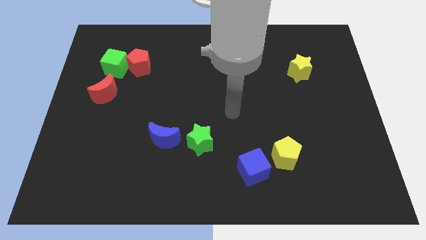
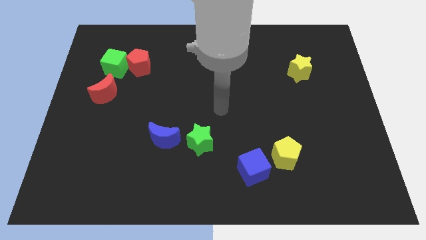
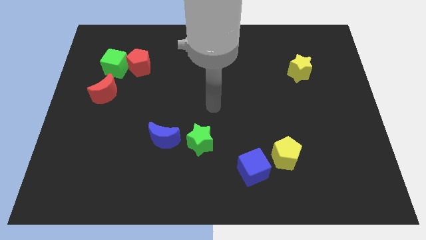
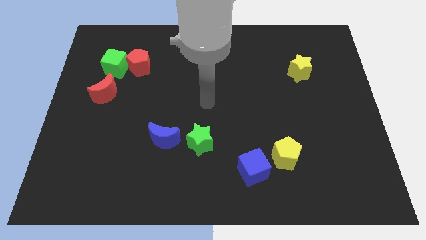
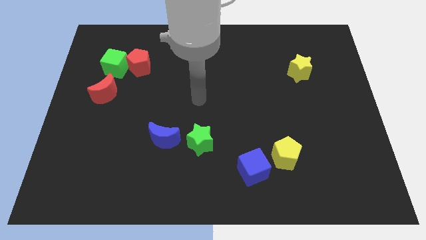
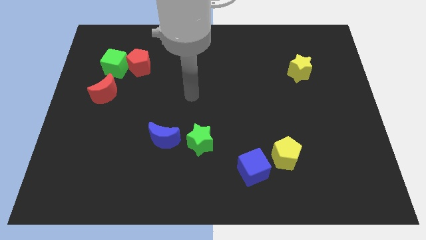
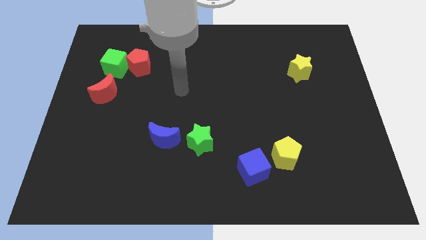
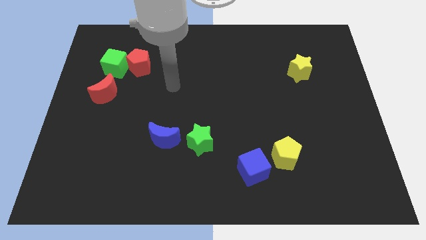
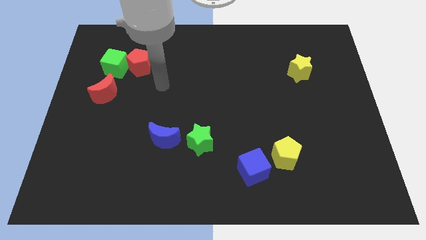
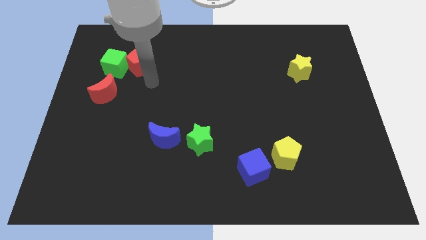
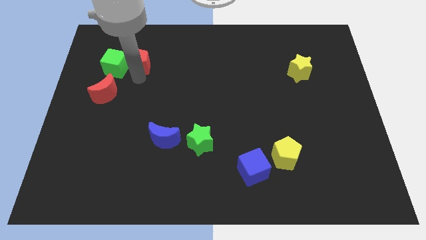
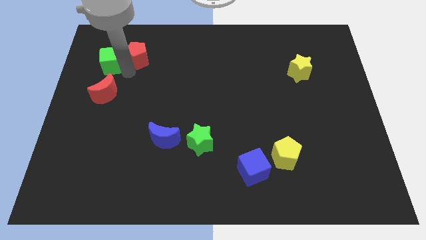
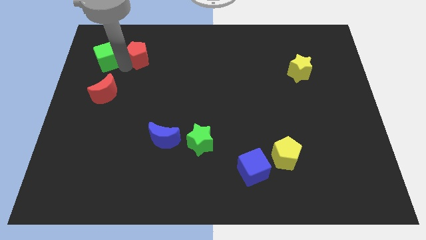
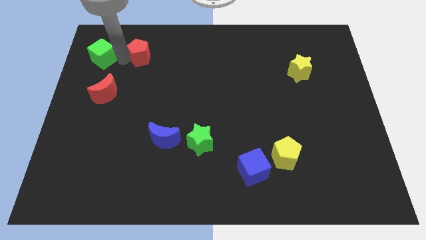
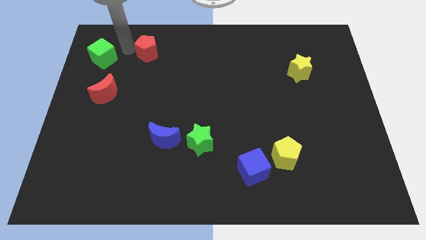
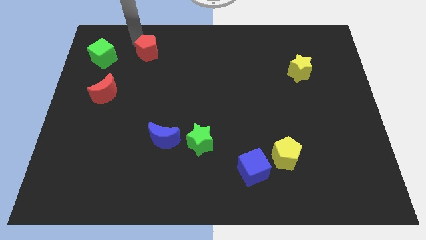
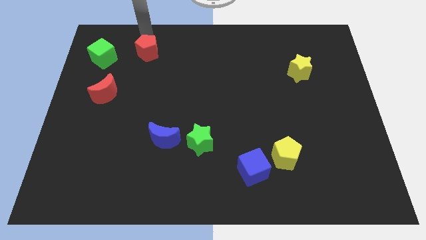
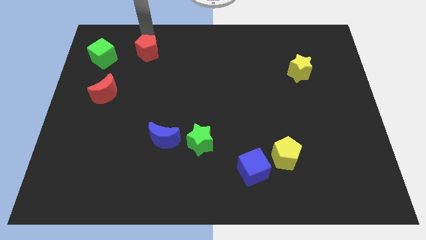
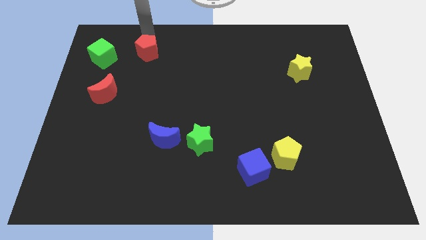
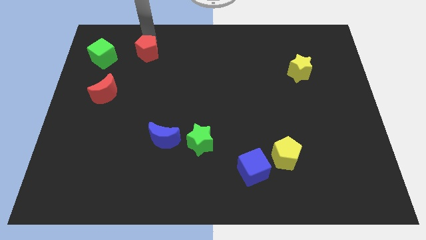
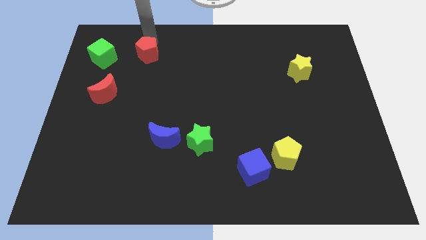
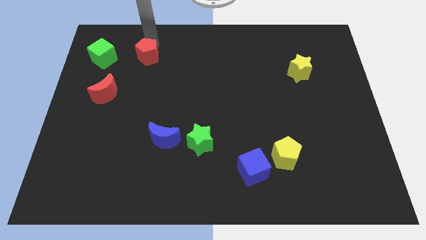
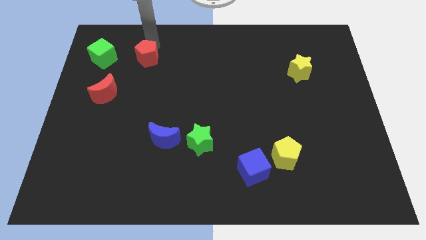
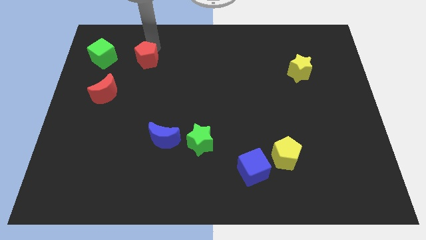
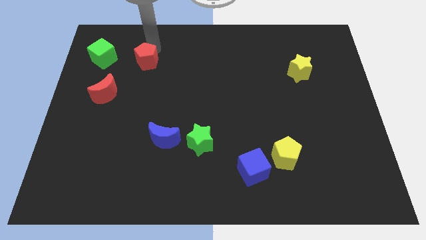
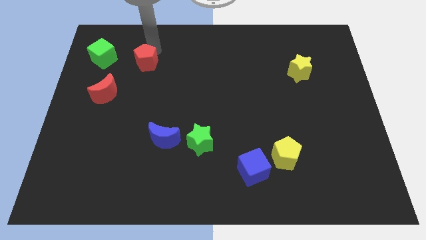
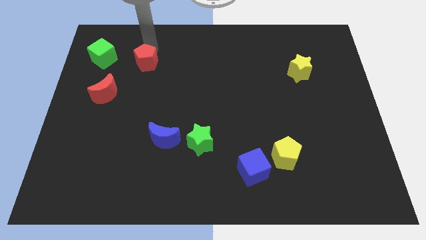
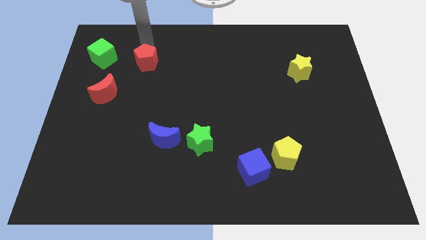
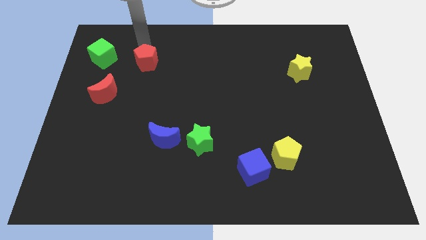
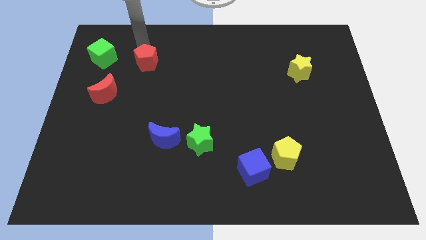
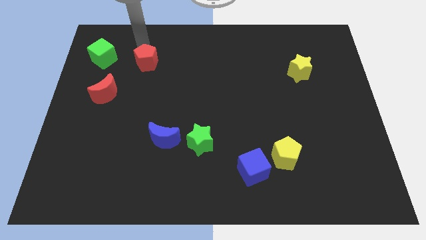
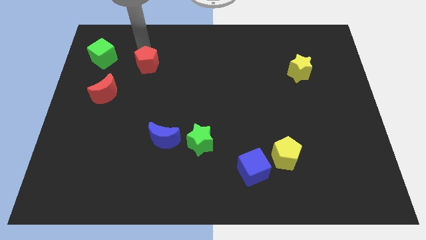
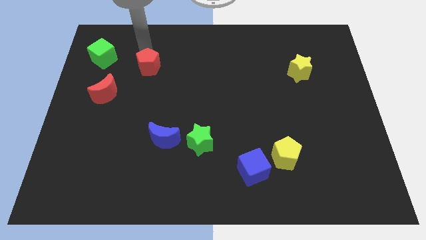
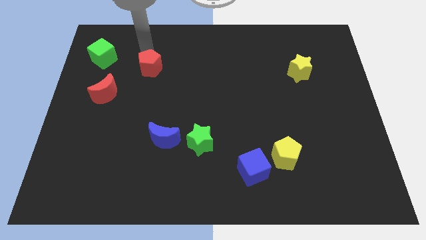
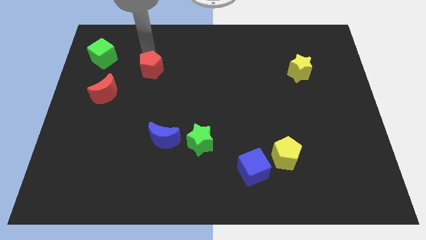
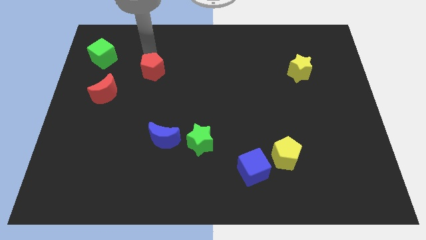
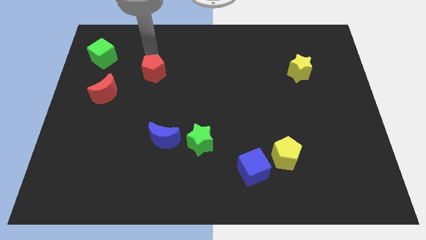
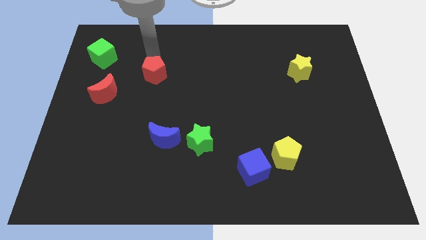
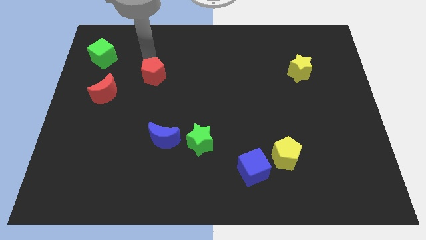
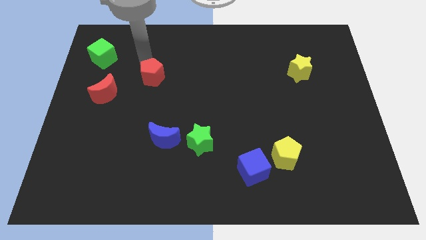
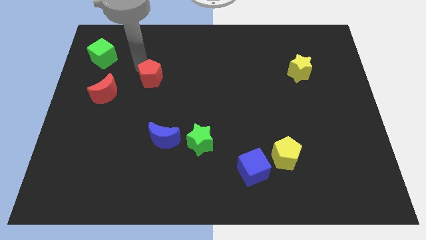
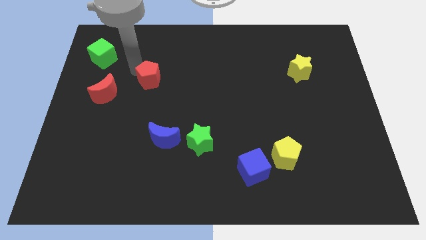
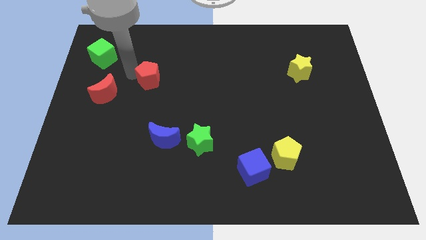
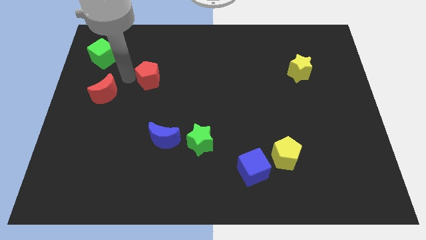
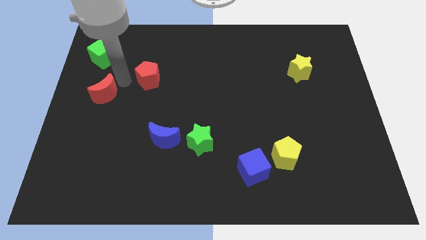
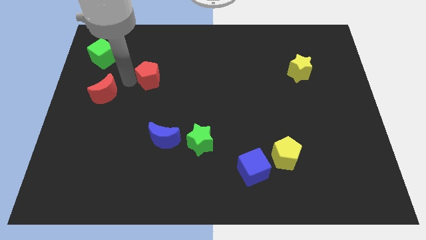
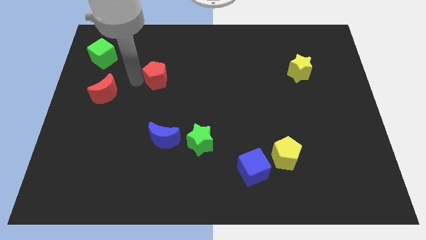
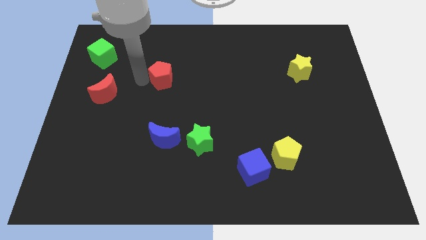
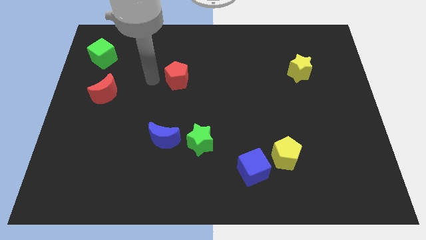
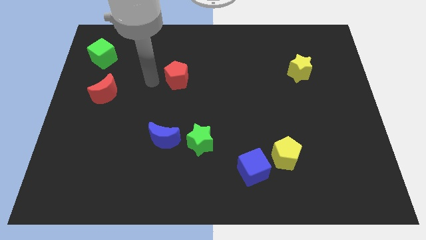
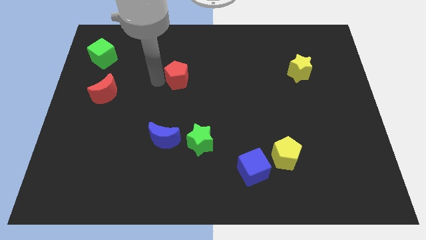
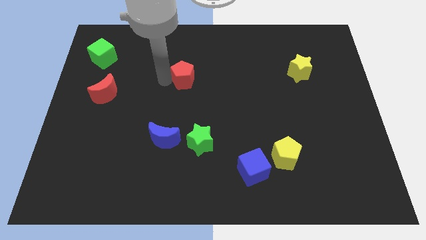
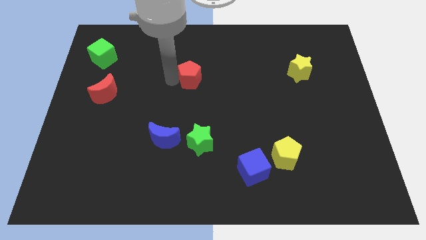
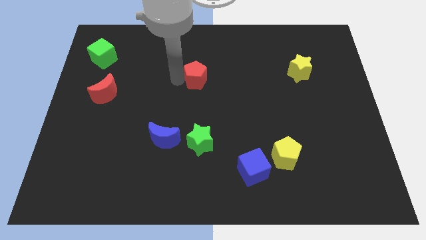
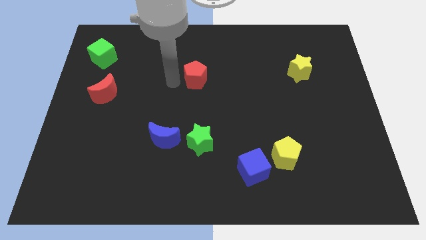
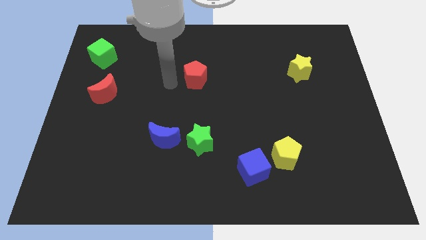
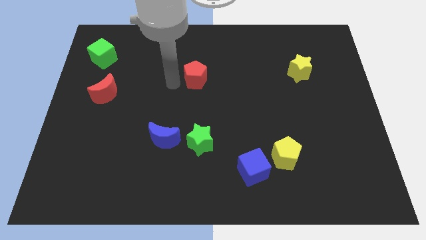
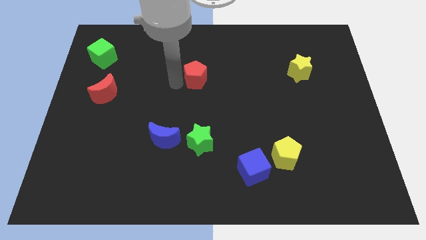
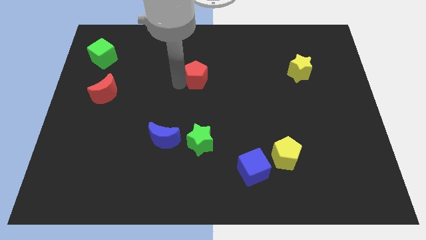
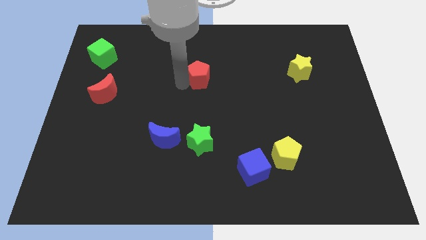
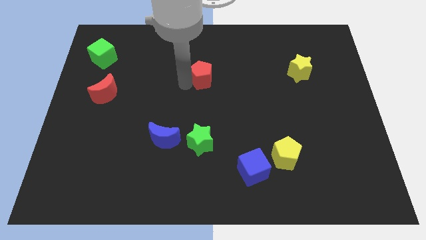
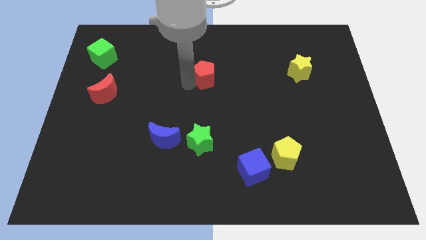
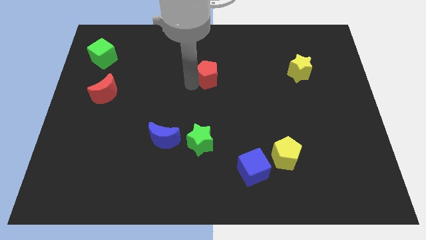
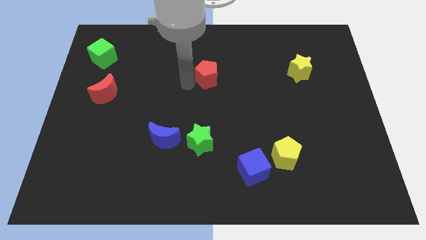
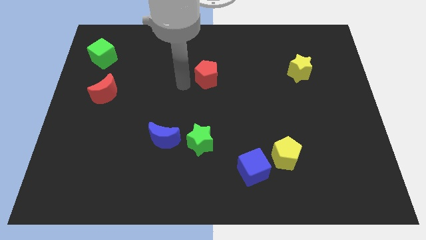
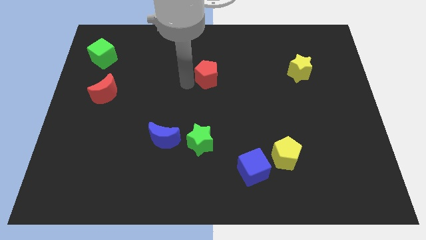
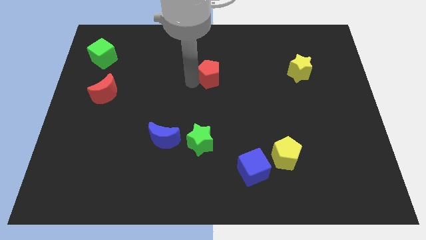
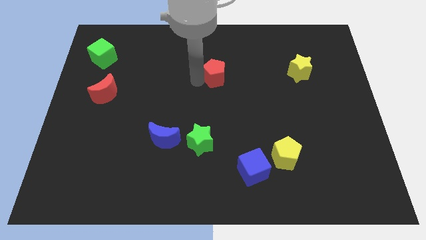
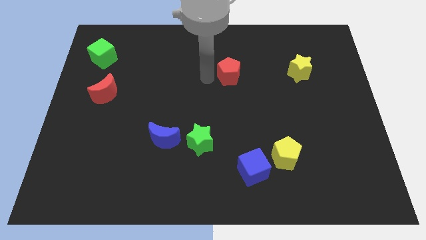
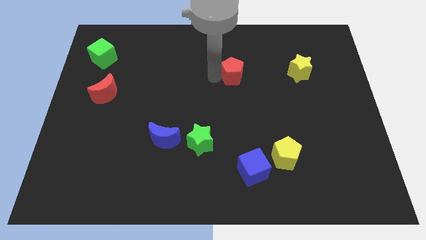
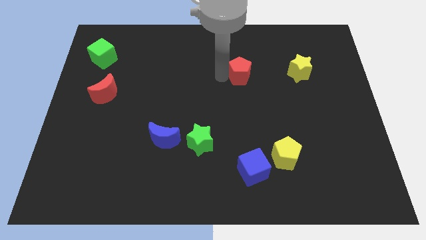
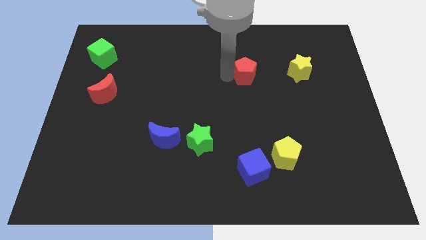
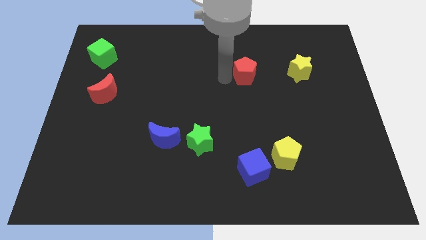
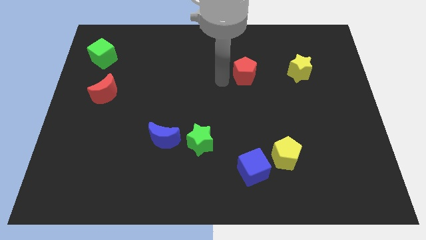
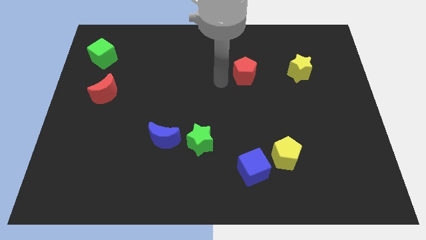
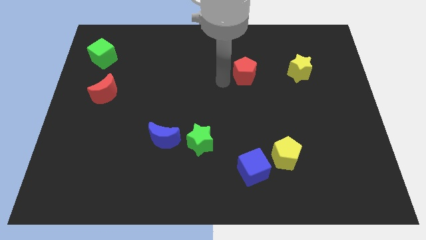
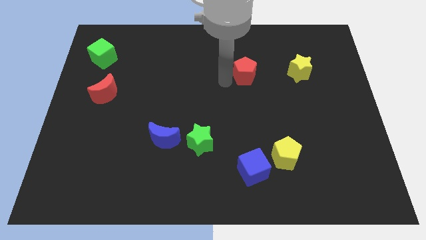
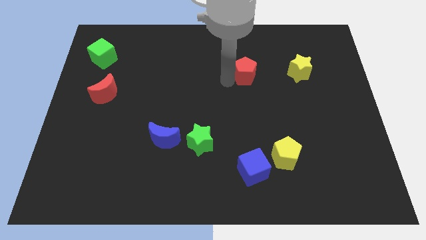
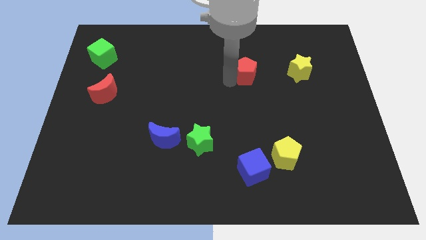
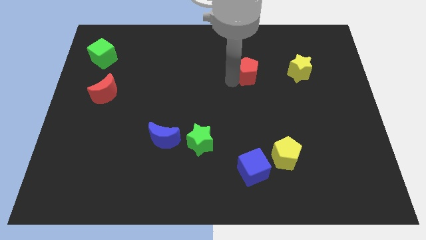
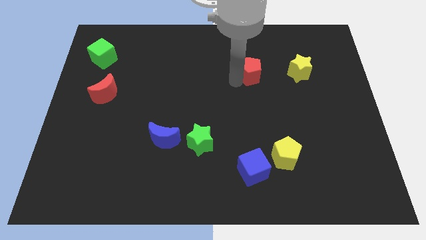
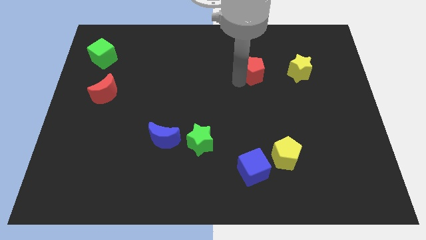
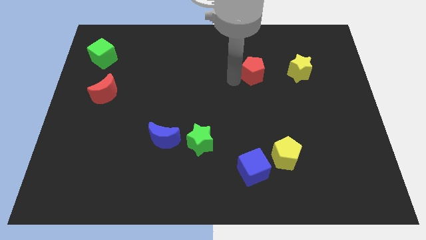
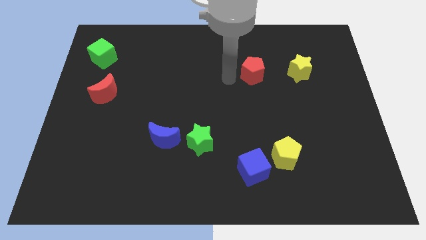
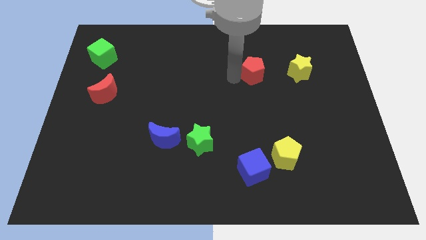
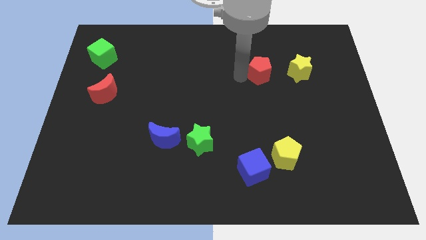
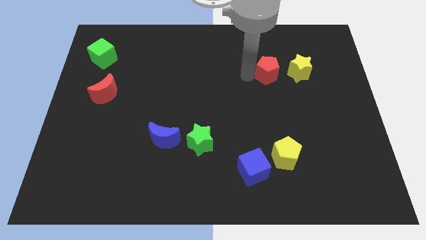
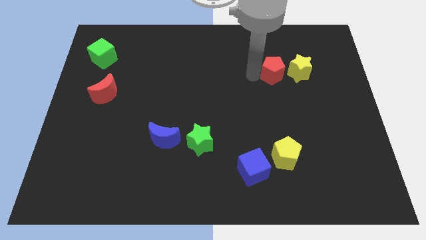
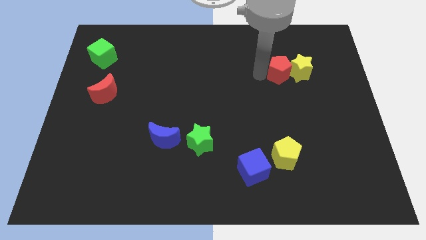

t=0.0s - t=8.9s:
push the red pentagon towards the yellow star
